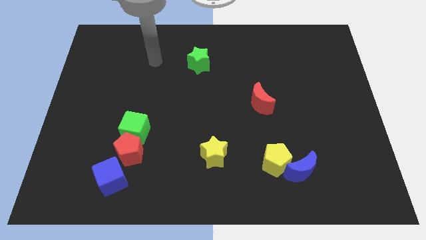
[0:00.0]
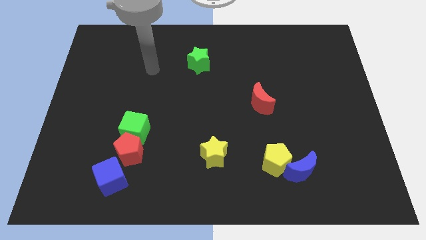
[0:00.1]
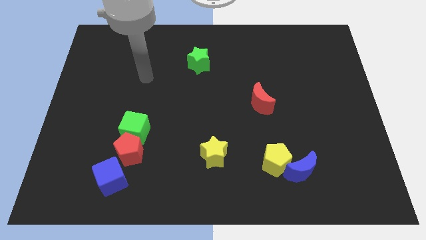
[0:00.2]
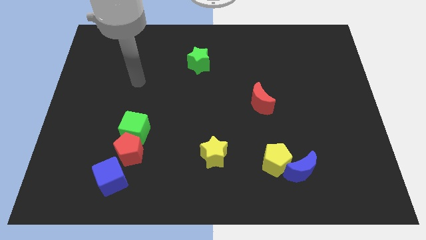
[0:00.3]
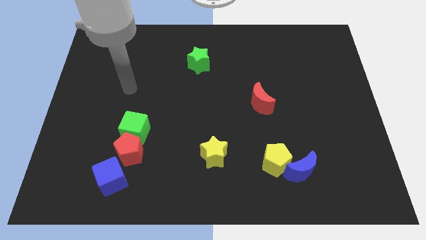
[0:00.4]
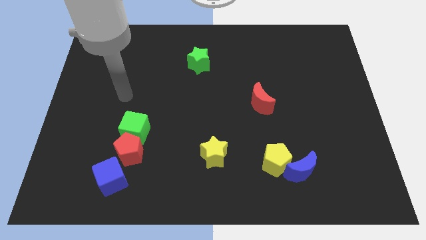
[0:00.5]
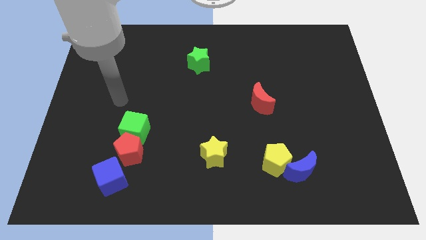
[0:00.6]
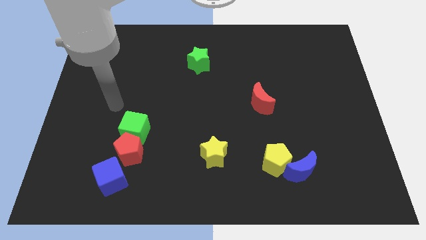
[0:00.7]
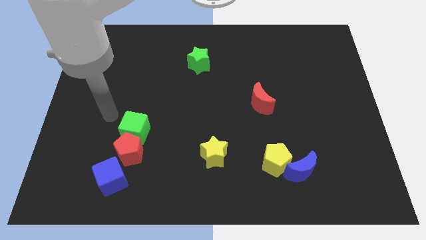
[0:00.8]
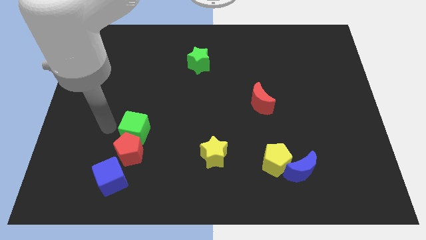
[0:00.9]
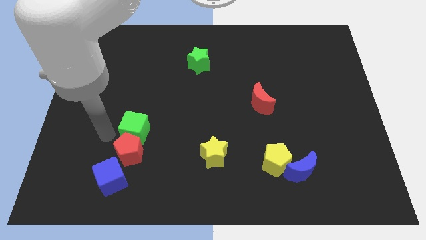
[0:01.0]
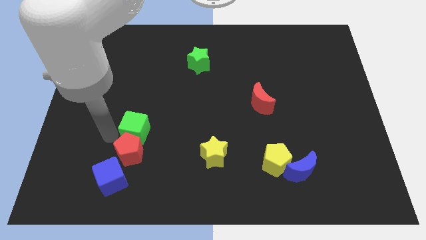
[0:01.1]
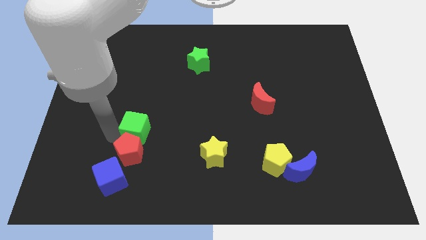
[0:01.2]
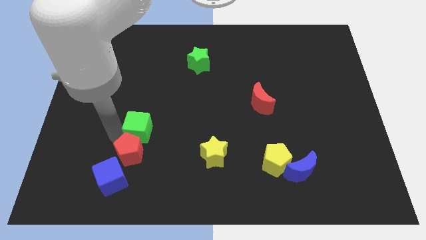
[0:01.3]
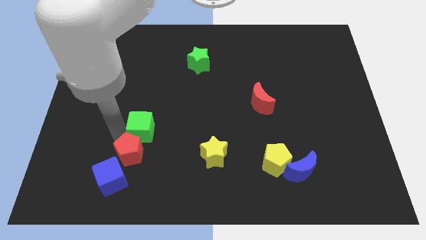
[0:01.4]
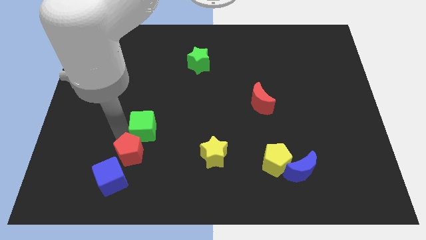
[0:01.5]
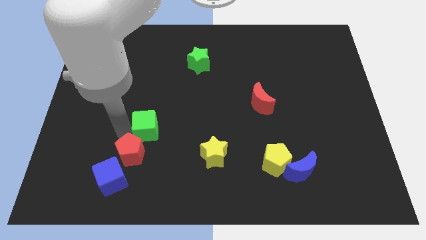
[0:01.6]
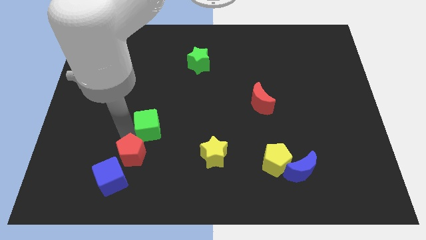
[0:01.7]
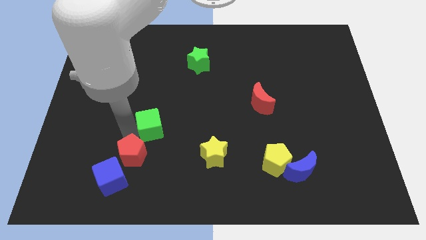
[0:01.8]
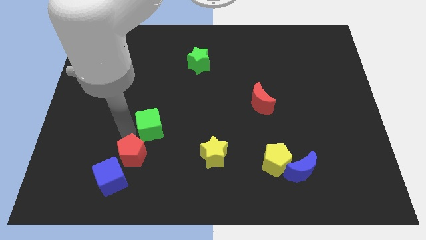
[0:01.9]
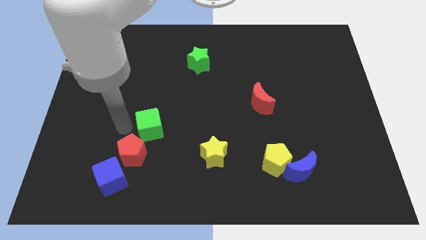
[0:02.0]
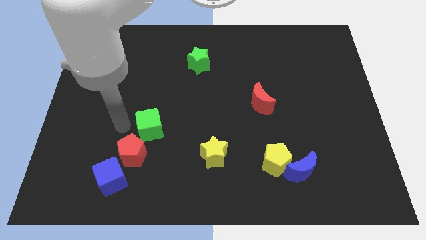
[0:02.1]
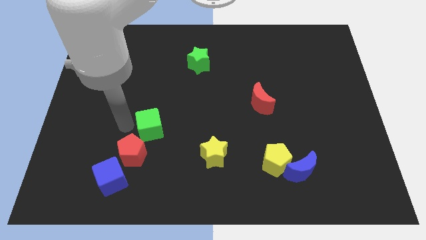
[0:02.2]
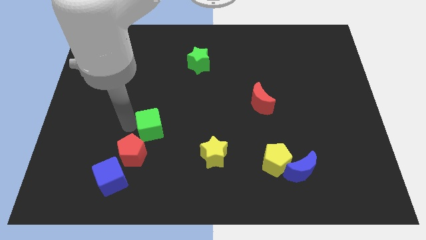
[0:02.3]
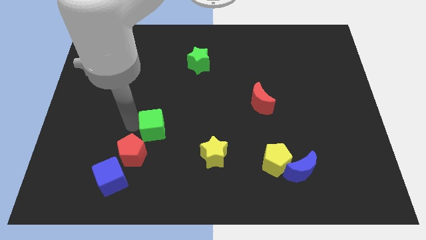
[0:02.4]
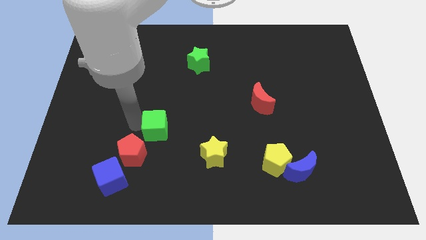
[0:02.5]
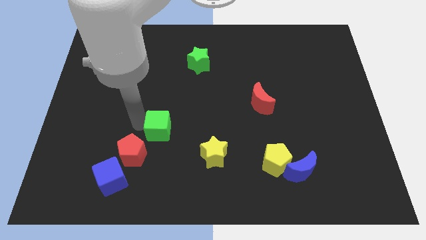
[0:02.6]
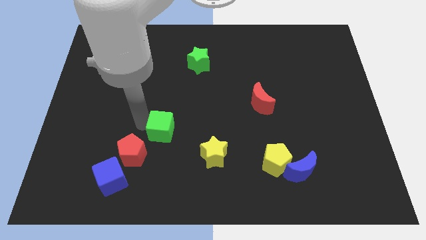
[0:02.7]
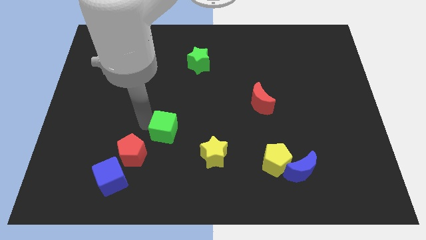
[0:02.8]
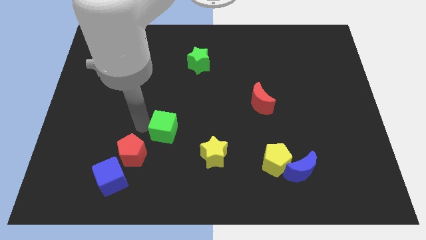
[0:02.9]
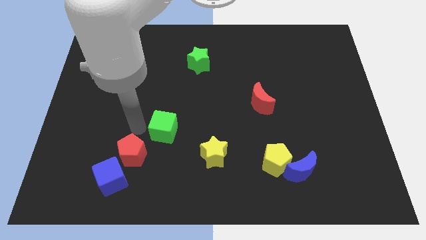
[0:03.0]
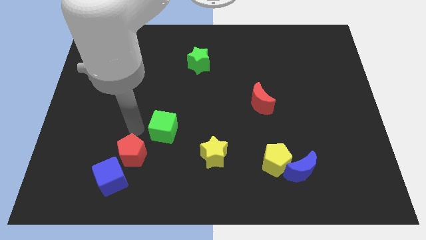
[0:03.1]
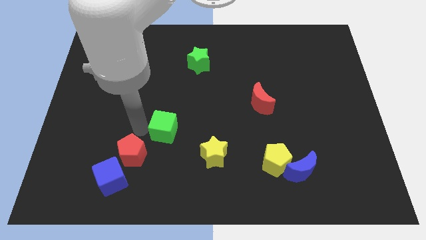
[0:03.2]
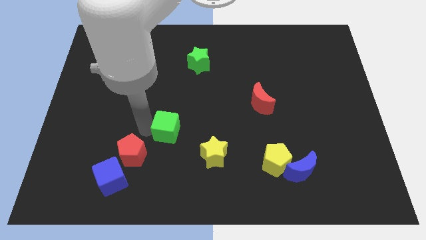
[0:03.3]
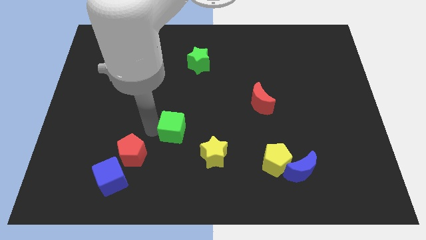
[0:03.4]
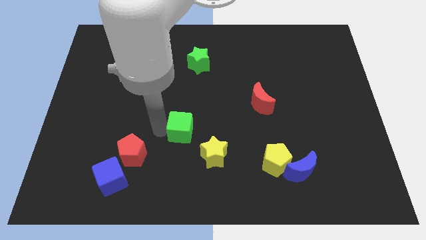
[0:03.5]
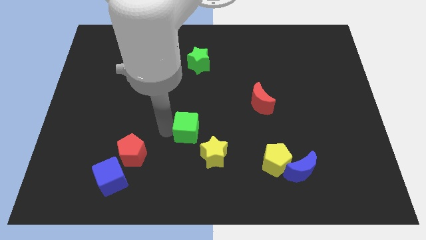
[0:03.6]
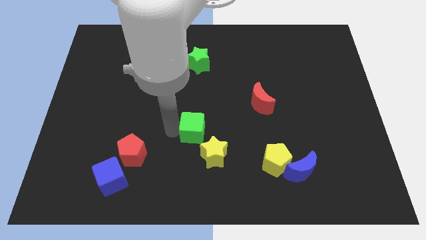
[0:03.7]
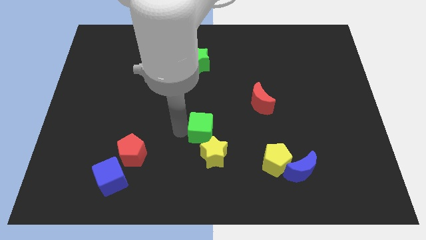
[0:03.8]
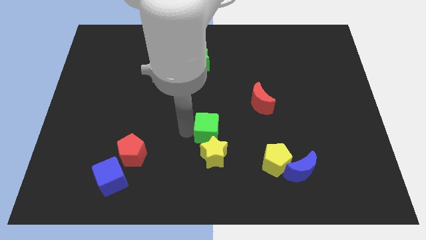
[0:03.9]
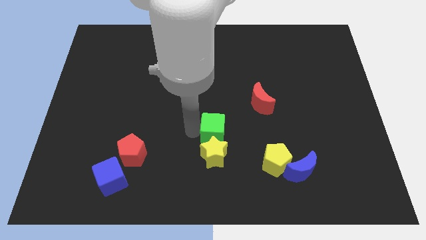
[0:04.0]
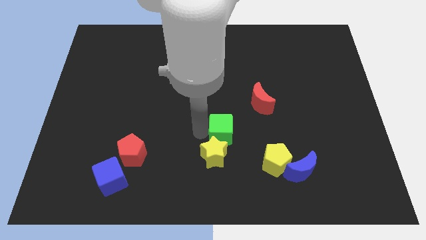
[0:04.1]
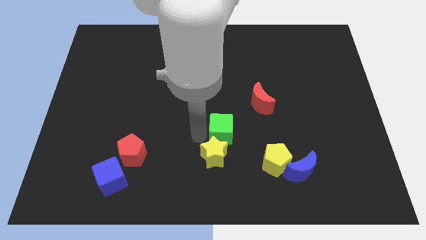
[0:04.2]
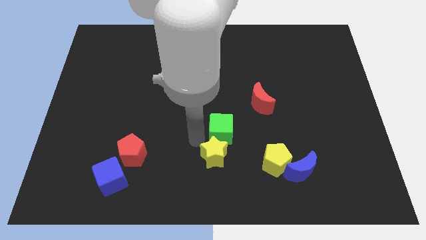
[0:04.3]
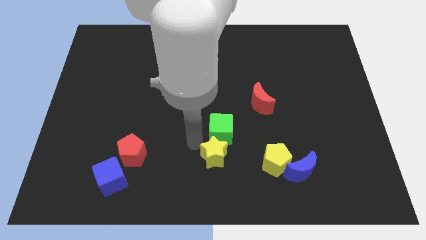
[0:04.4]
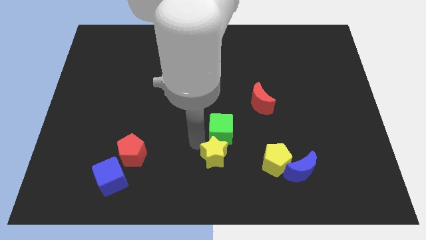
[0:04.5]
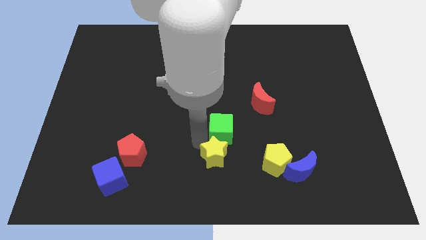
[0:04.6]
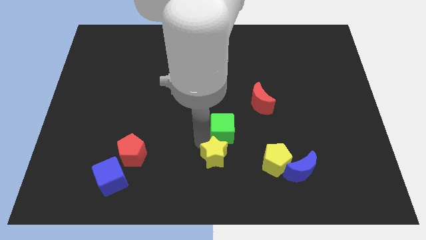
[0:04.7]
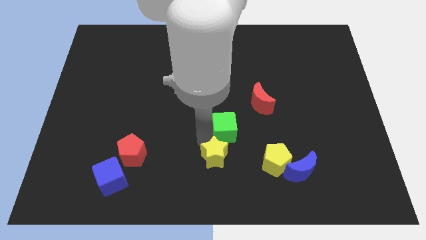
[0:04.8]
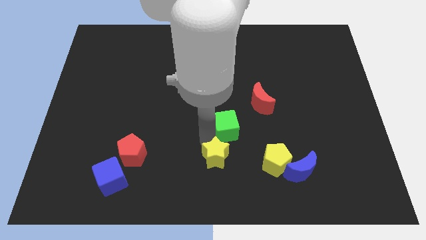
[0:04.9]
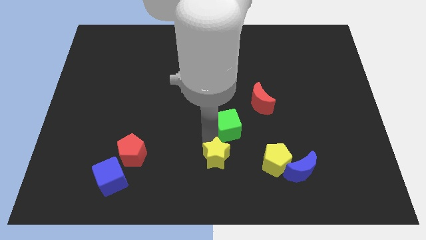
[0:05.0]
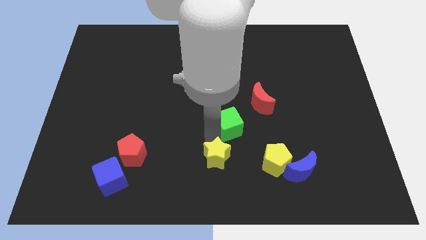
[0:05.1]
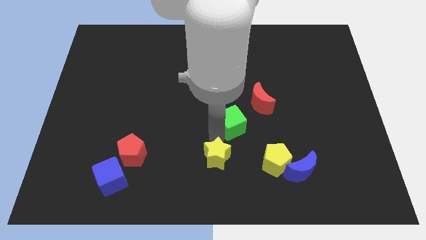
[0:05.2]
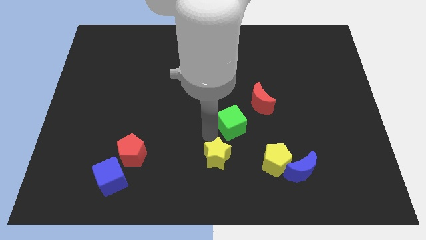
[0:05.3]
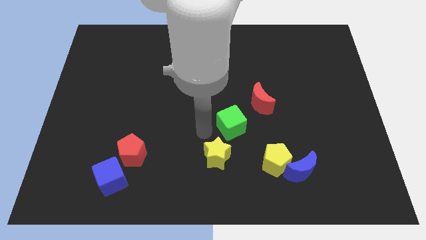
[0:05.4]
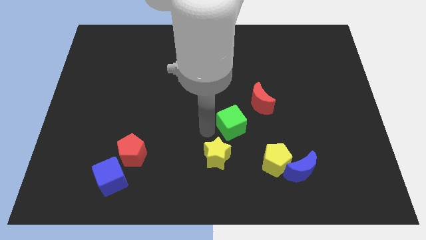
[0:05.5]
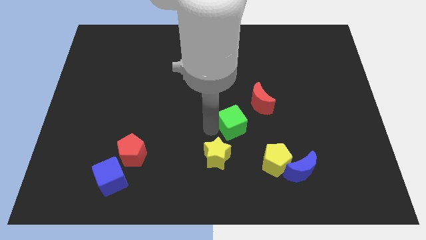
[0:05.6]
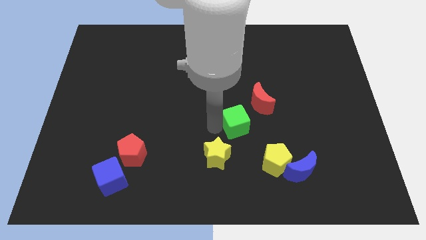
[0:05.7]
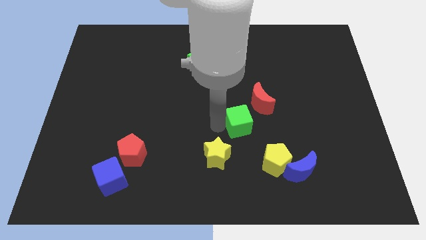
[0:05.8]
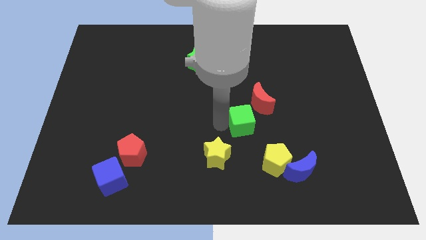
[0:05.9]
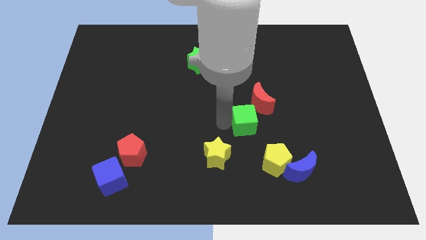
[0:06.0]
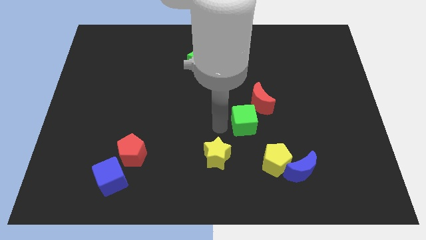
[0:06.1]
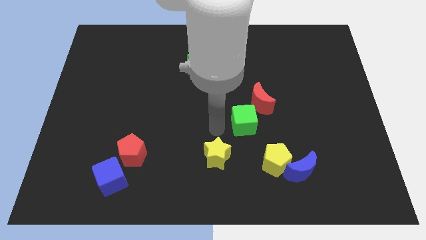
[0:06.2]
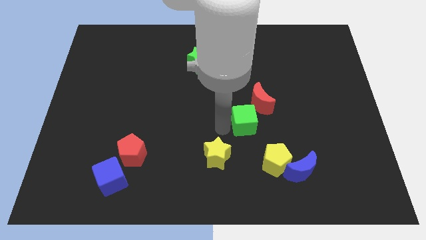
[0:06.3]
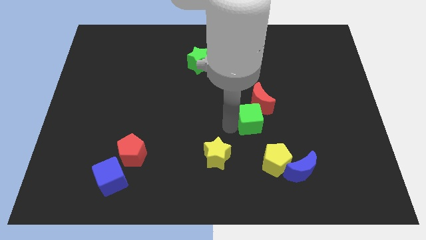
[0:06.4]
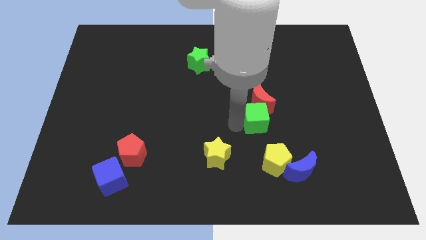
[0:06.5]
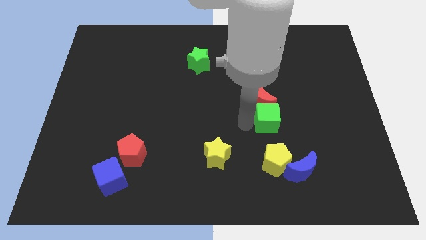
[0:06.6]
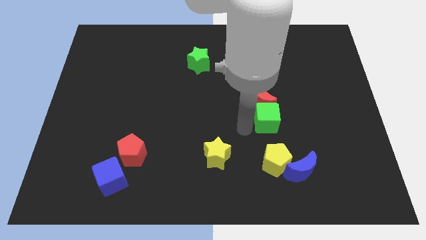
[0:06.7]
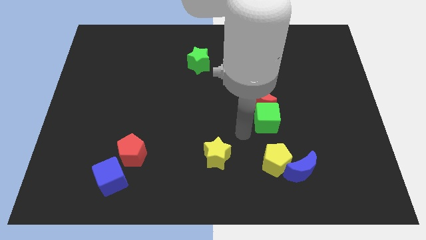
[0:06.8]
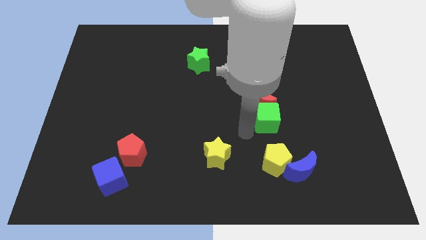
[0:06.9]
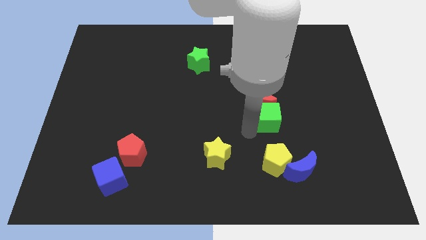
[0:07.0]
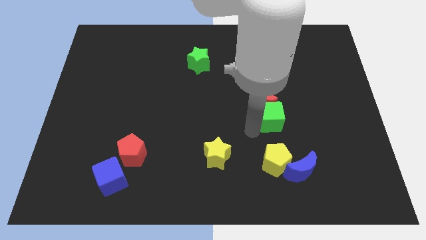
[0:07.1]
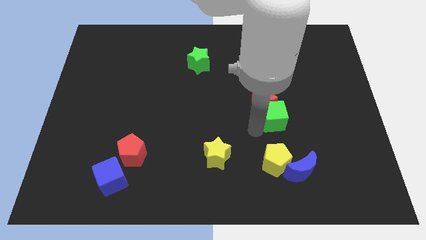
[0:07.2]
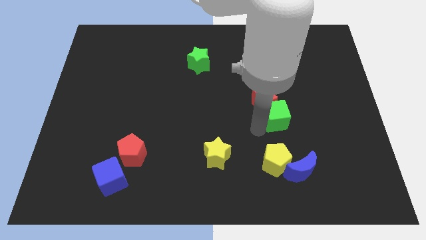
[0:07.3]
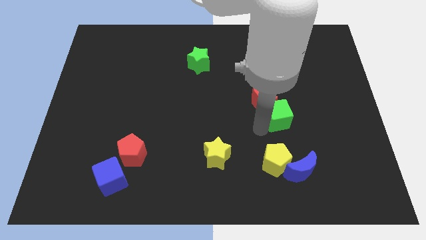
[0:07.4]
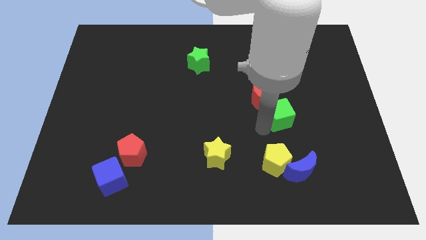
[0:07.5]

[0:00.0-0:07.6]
move the green cube to the right of the red moon
